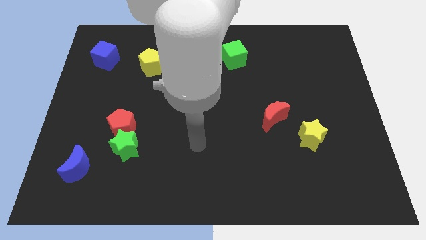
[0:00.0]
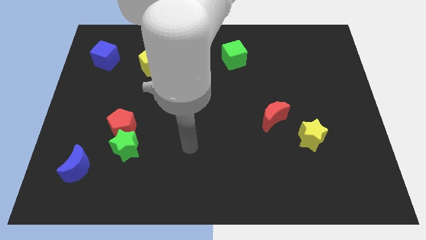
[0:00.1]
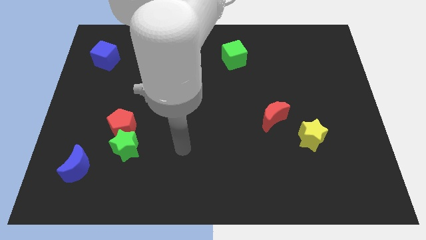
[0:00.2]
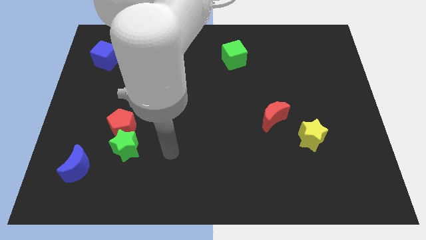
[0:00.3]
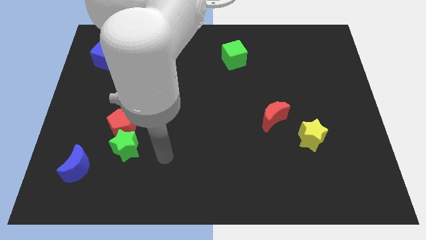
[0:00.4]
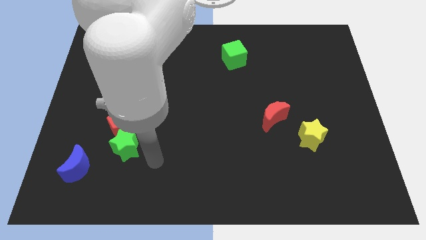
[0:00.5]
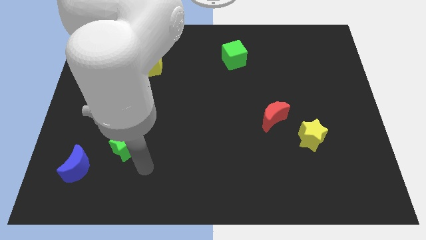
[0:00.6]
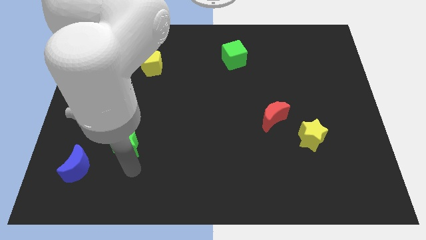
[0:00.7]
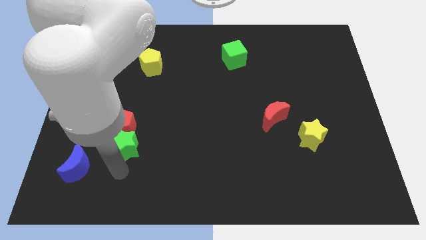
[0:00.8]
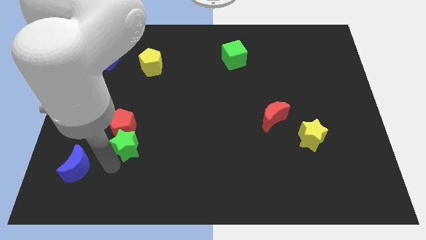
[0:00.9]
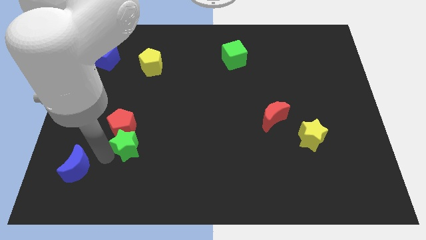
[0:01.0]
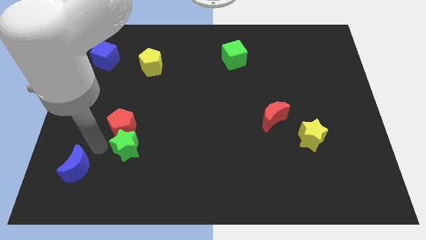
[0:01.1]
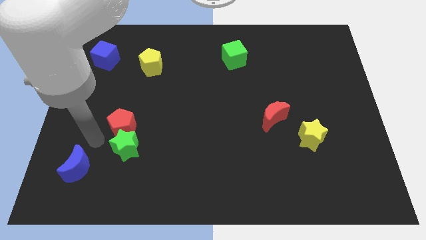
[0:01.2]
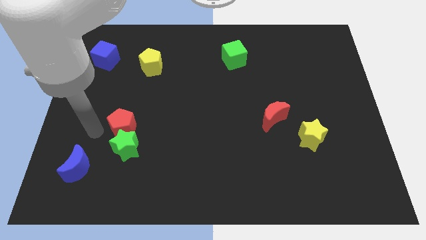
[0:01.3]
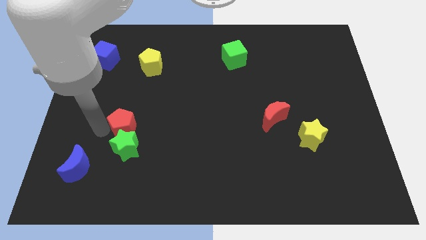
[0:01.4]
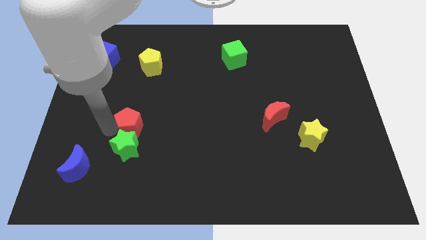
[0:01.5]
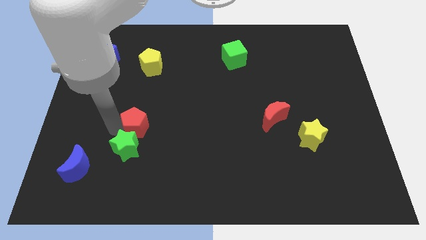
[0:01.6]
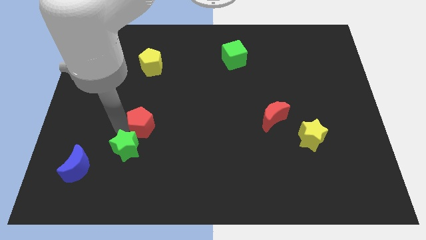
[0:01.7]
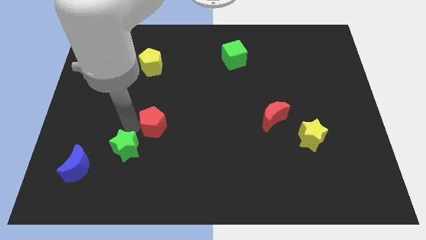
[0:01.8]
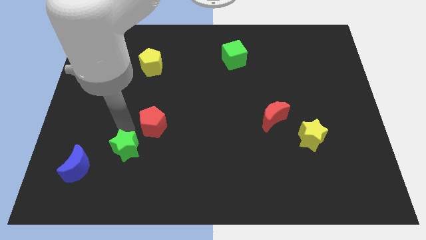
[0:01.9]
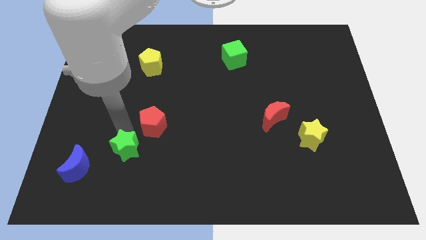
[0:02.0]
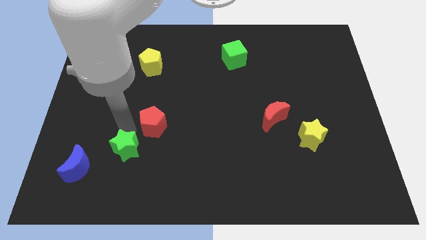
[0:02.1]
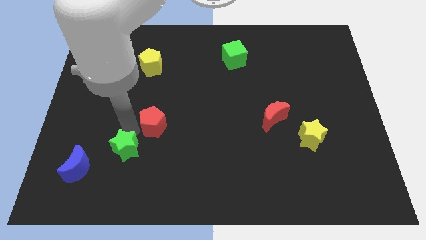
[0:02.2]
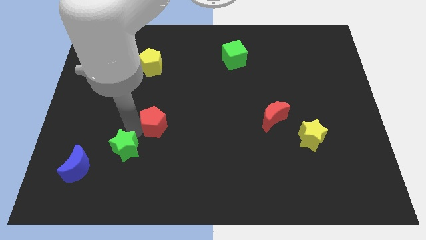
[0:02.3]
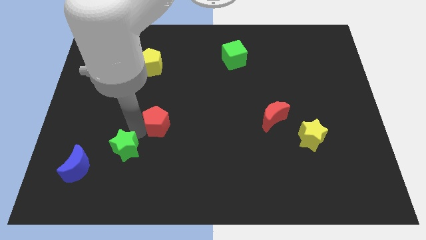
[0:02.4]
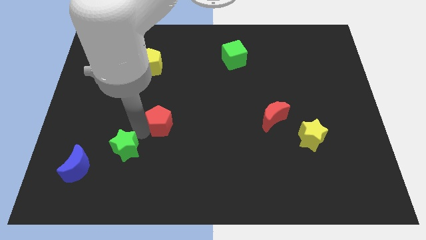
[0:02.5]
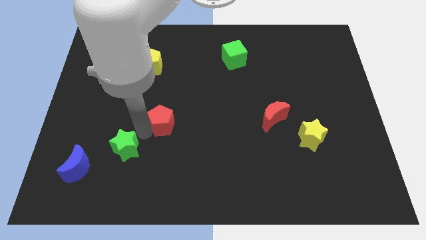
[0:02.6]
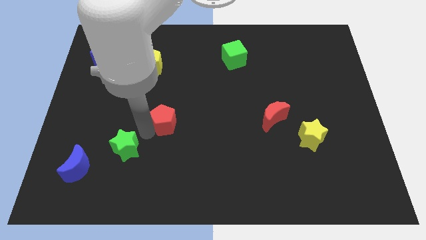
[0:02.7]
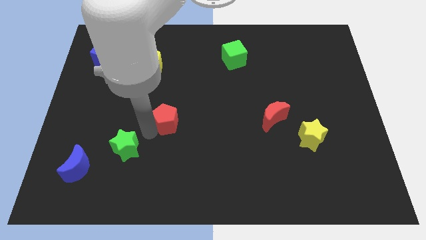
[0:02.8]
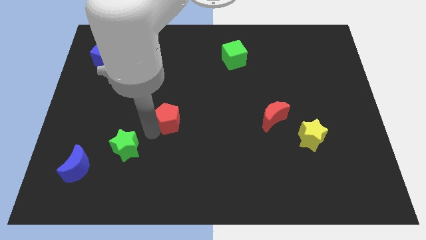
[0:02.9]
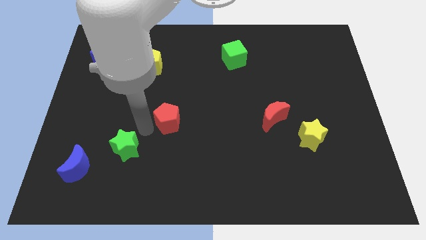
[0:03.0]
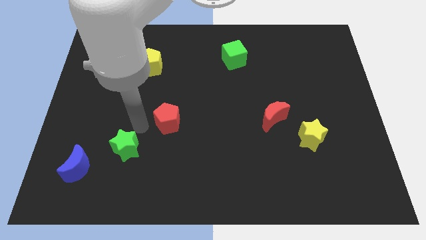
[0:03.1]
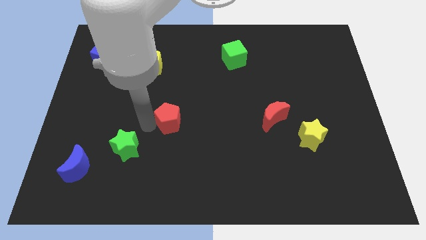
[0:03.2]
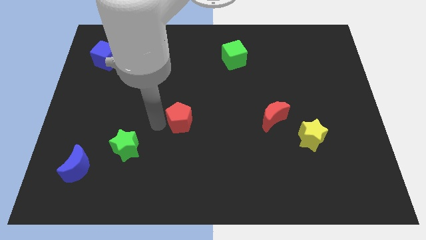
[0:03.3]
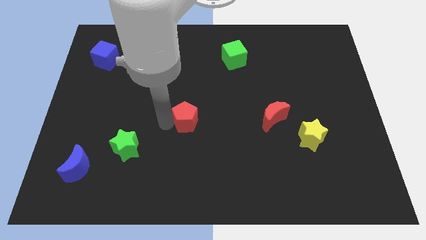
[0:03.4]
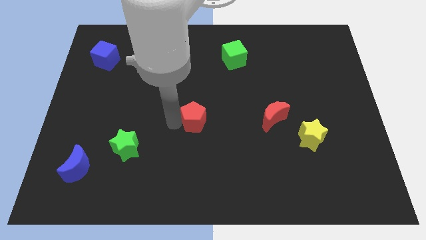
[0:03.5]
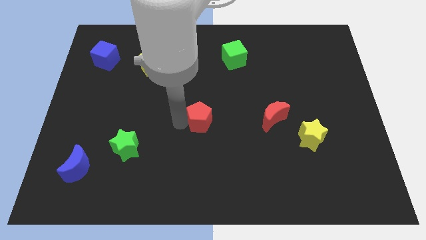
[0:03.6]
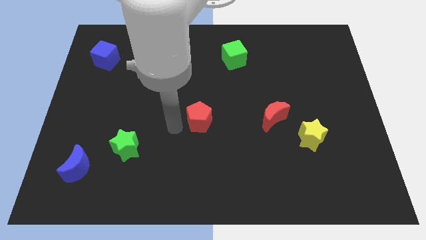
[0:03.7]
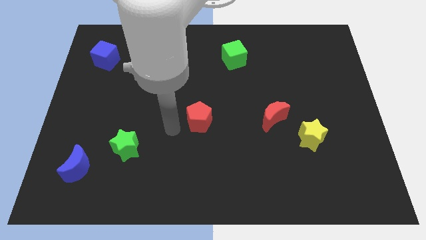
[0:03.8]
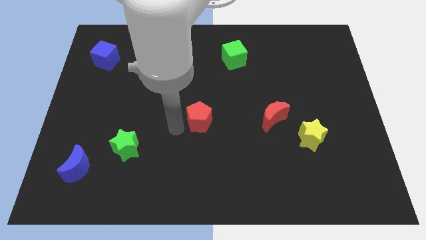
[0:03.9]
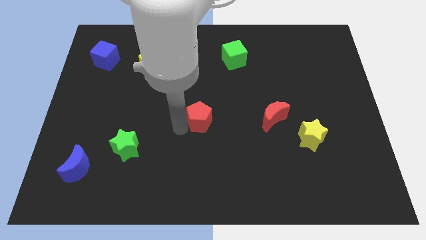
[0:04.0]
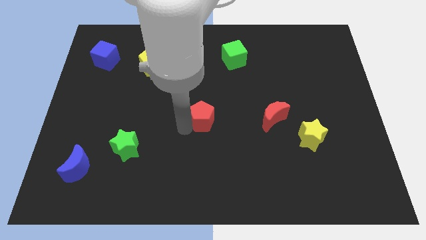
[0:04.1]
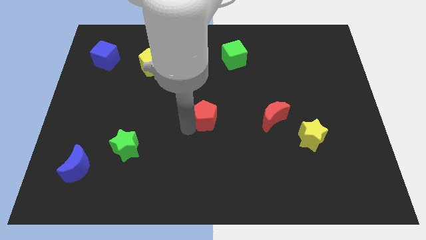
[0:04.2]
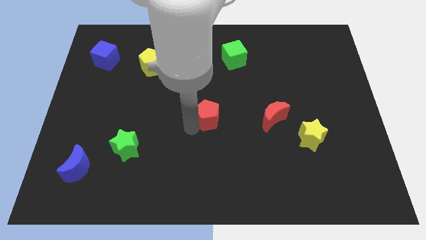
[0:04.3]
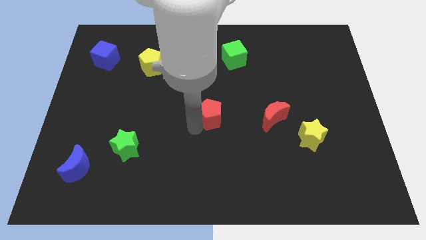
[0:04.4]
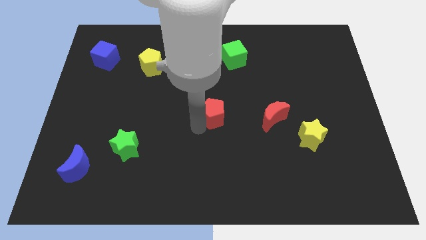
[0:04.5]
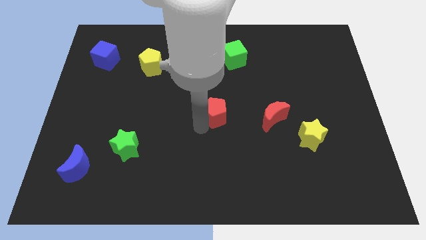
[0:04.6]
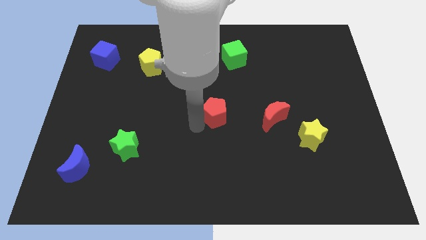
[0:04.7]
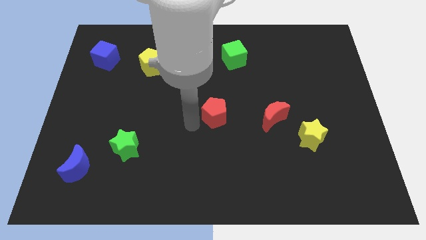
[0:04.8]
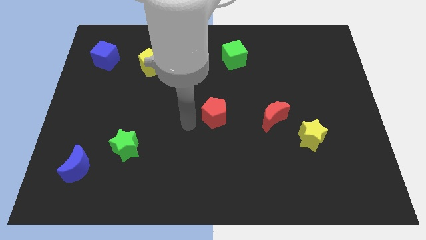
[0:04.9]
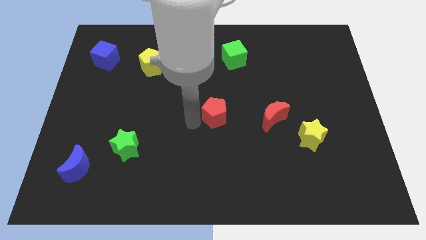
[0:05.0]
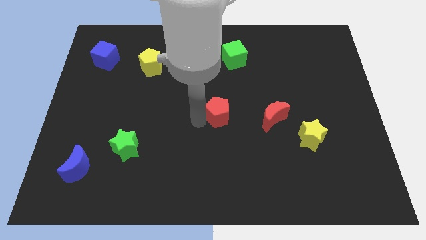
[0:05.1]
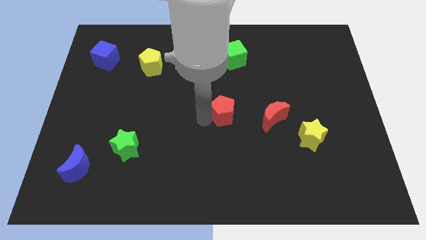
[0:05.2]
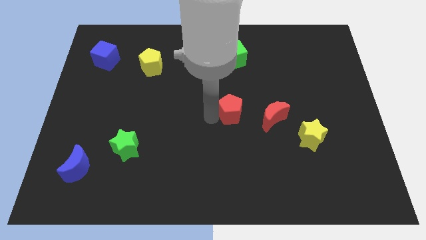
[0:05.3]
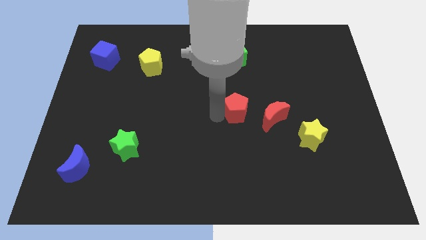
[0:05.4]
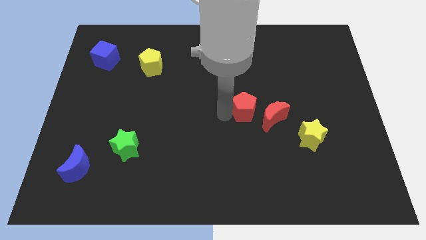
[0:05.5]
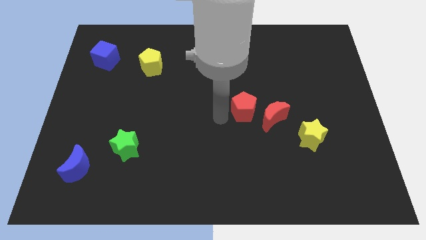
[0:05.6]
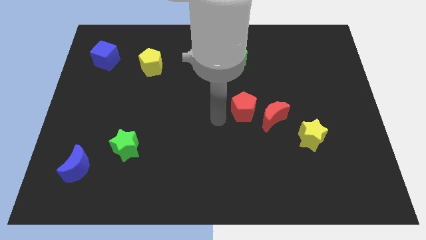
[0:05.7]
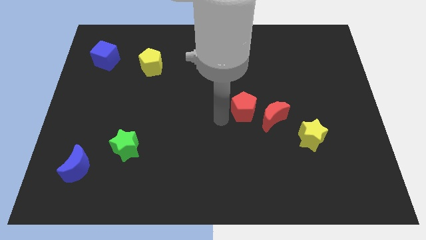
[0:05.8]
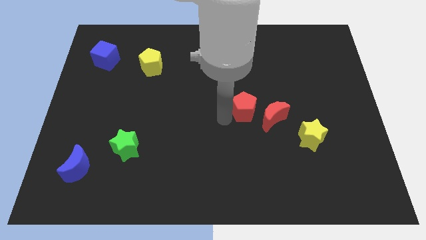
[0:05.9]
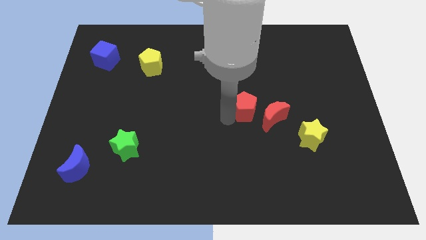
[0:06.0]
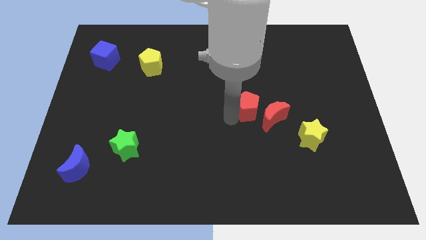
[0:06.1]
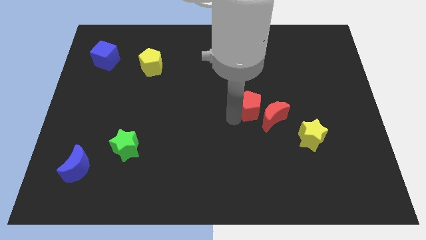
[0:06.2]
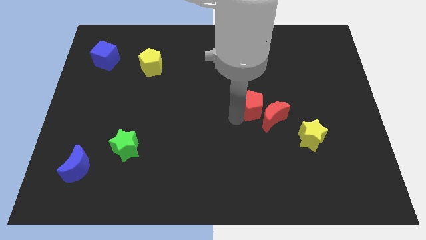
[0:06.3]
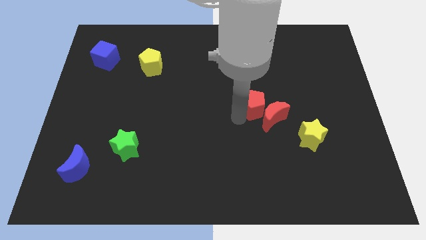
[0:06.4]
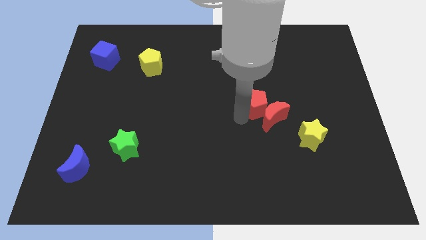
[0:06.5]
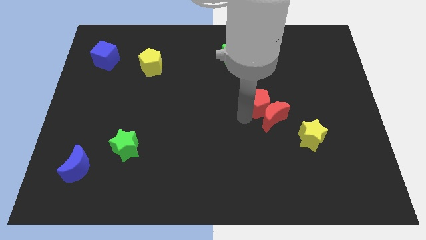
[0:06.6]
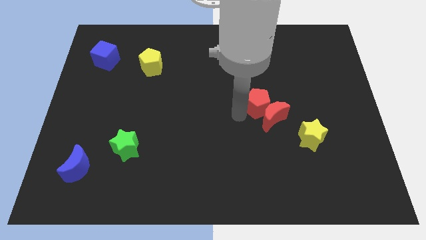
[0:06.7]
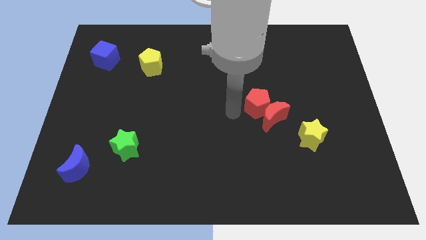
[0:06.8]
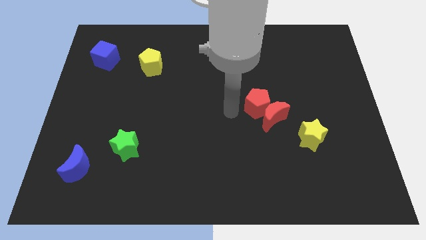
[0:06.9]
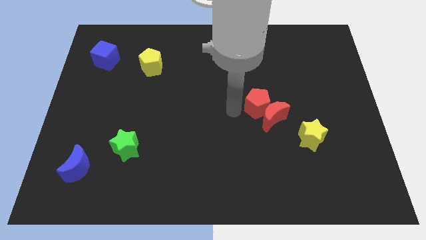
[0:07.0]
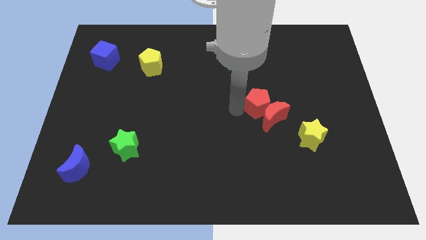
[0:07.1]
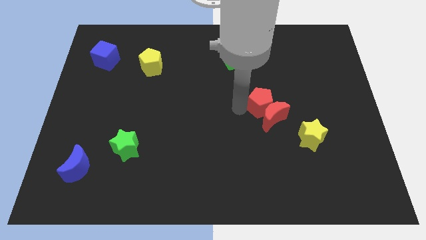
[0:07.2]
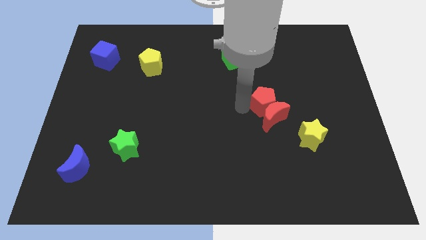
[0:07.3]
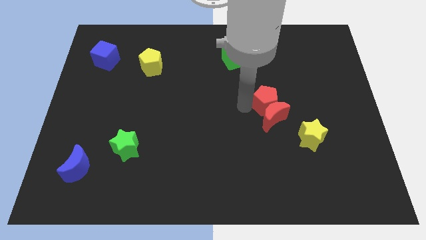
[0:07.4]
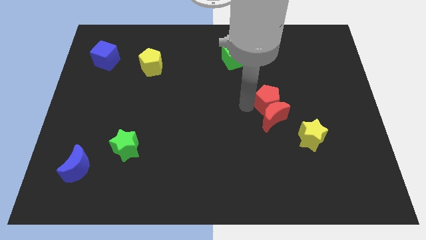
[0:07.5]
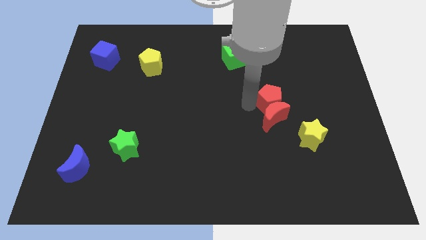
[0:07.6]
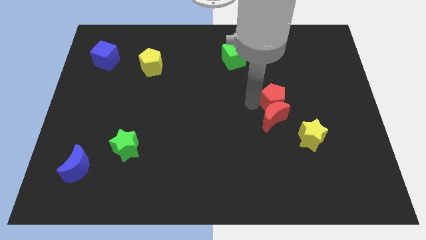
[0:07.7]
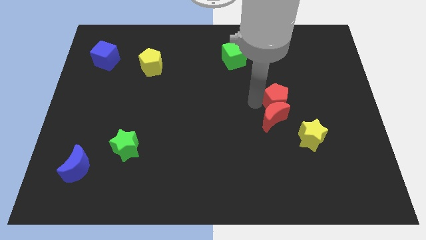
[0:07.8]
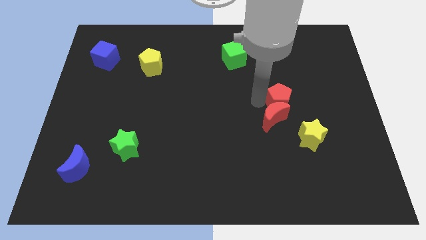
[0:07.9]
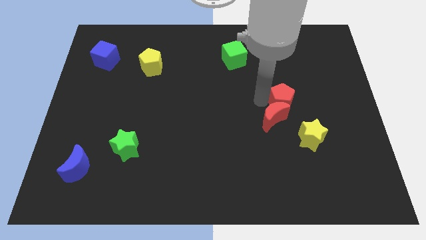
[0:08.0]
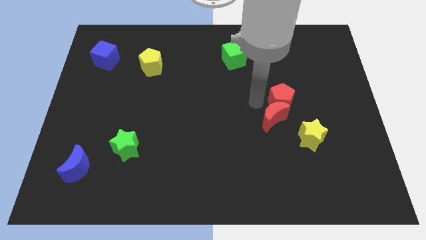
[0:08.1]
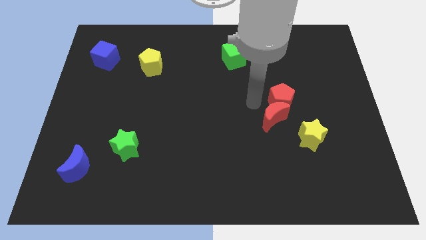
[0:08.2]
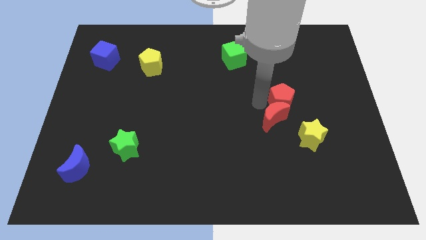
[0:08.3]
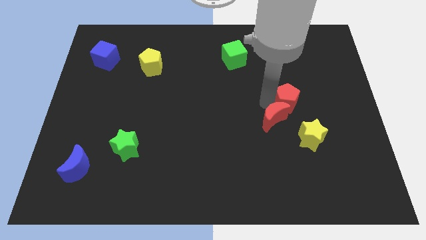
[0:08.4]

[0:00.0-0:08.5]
put the red pentagon to the top of the yellow star
